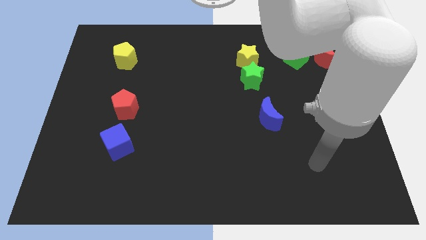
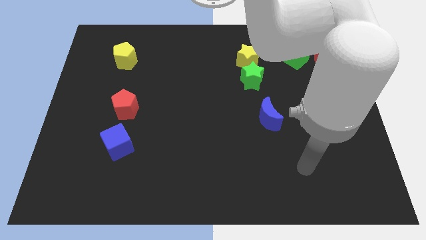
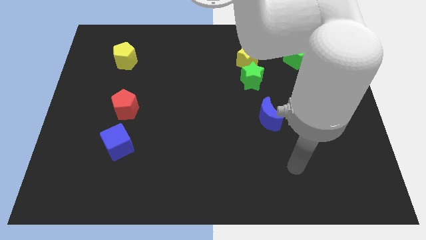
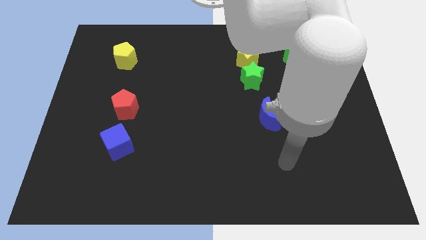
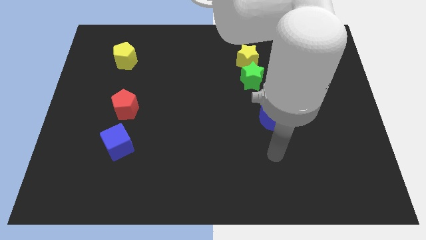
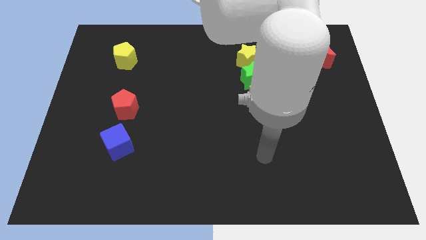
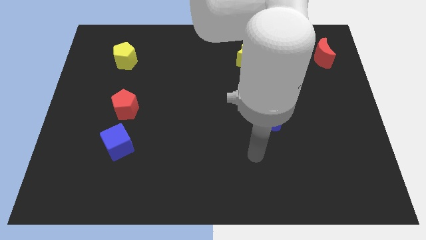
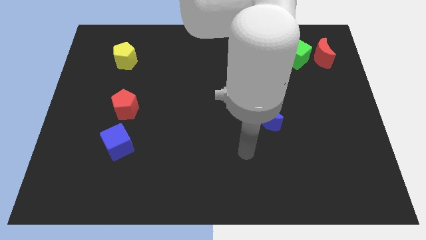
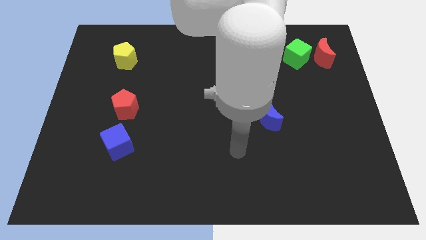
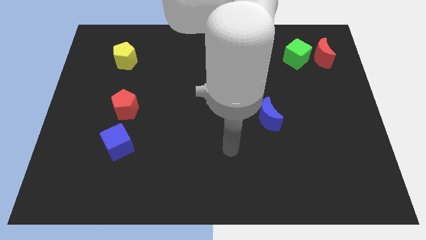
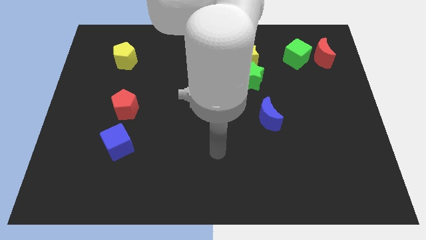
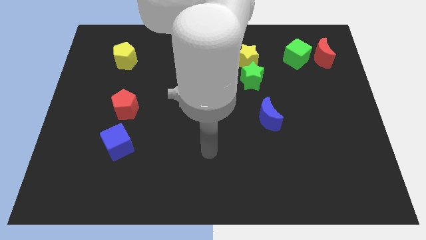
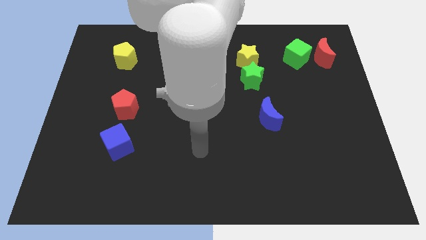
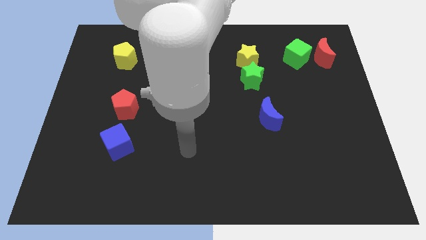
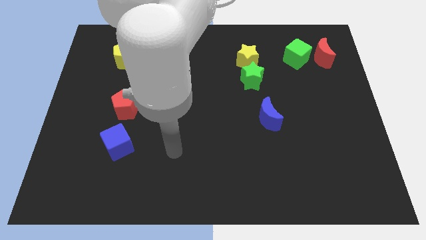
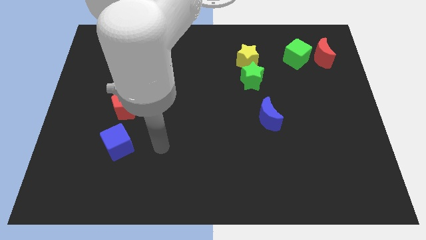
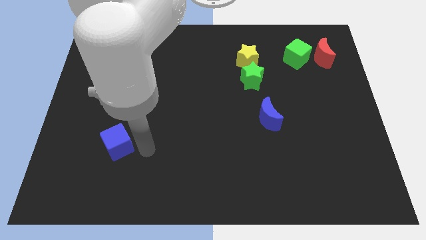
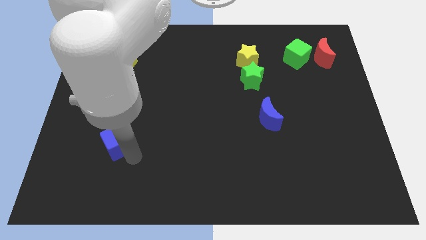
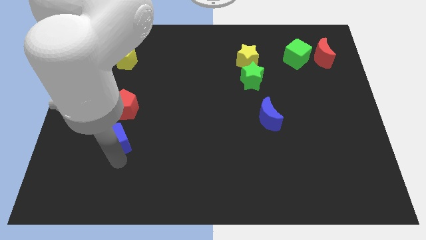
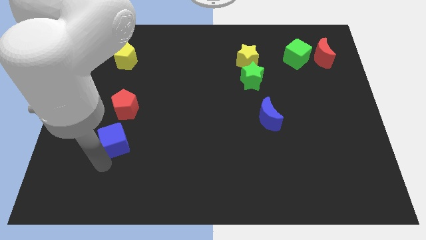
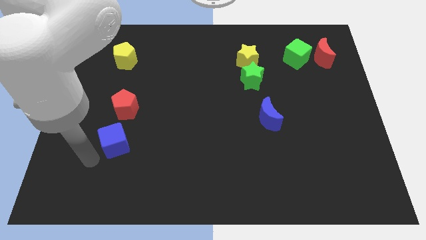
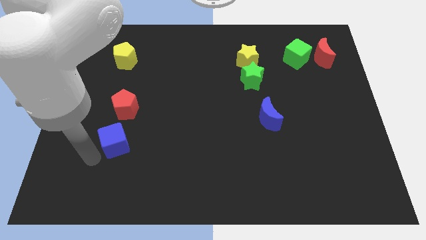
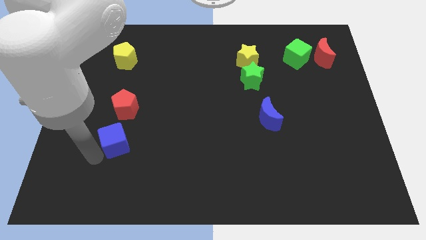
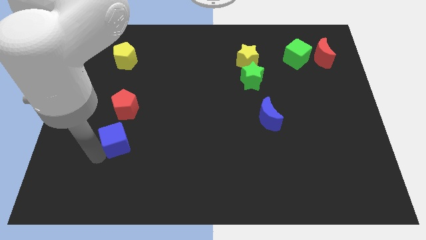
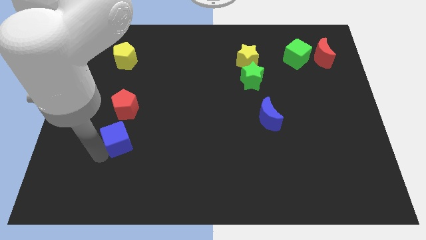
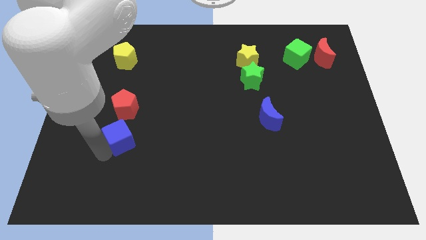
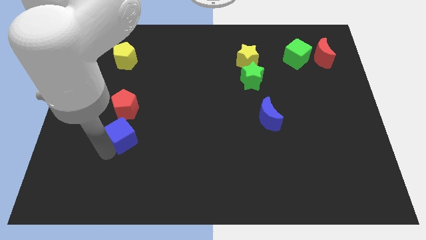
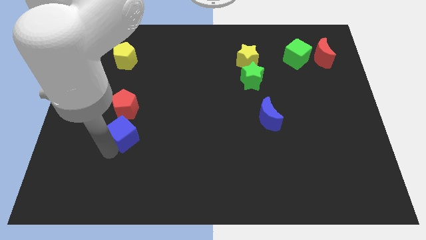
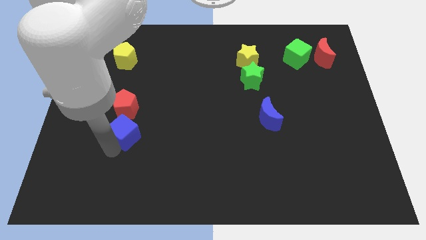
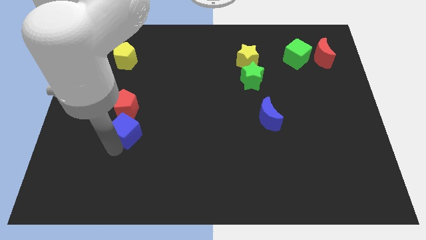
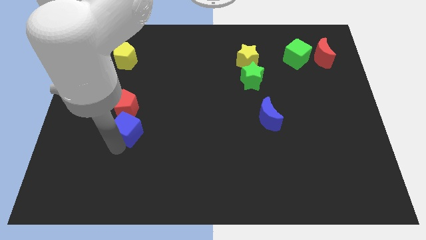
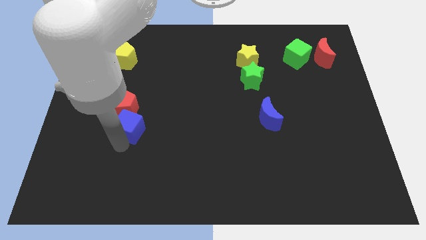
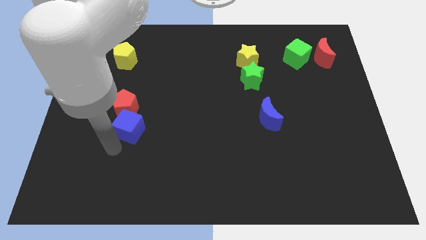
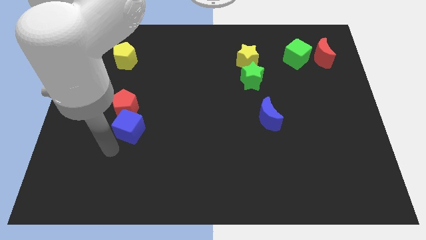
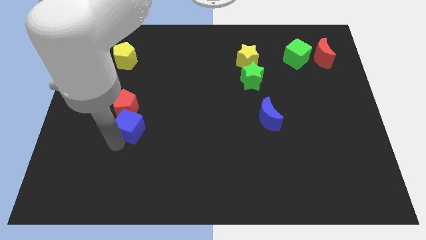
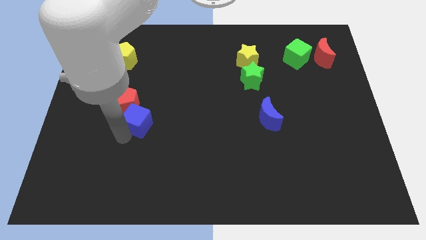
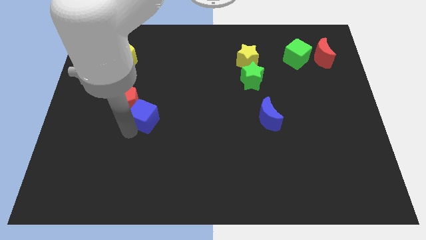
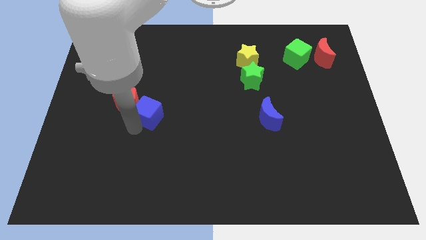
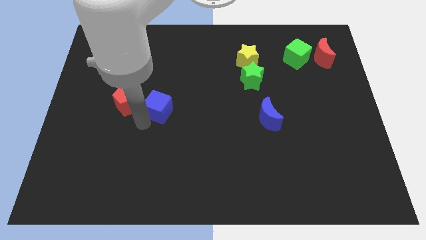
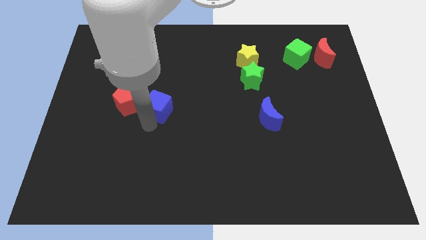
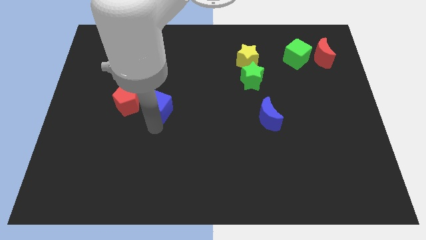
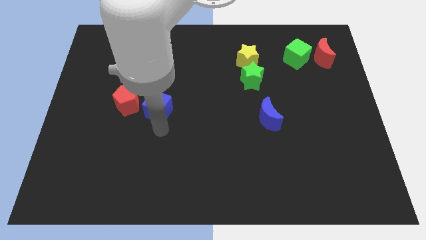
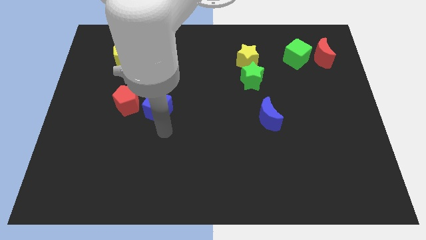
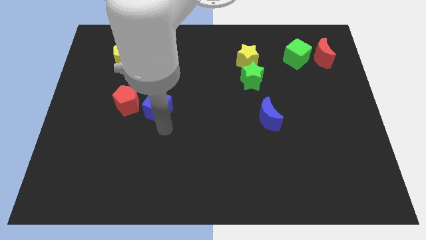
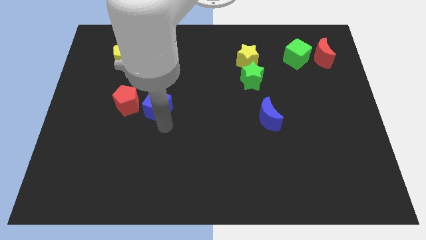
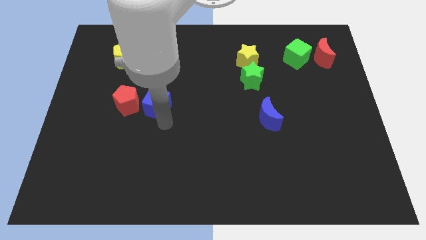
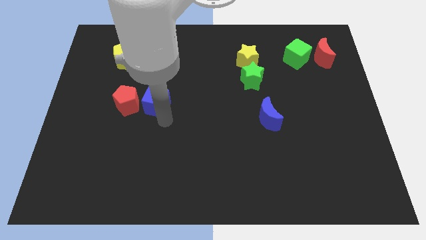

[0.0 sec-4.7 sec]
put the blue cube to the top right of the red pentagon

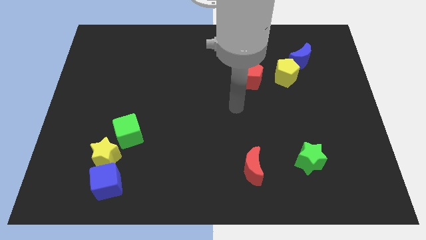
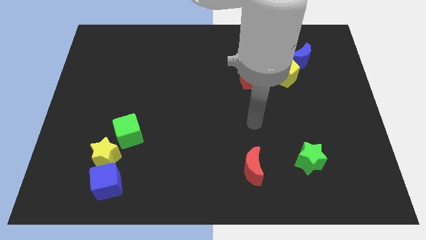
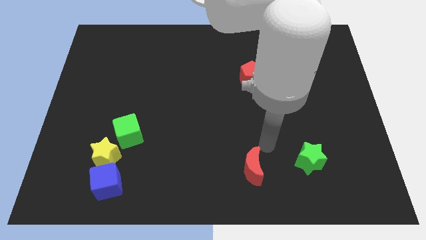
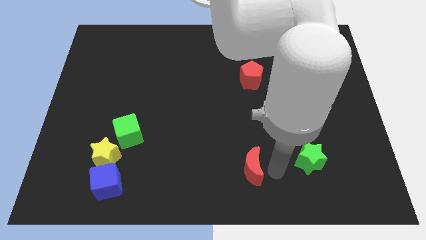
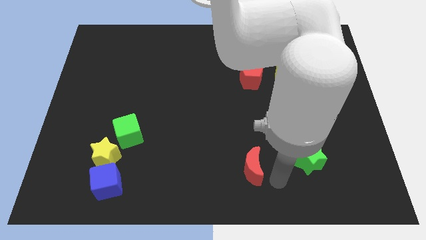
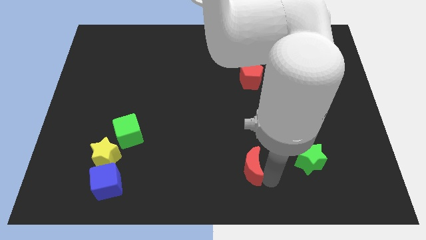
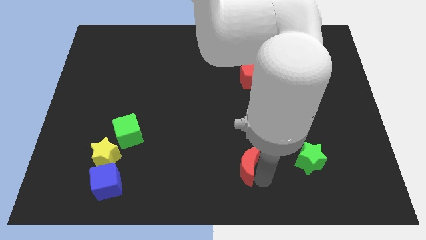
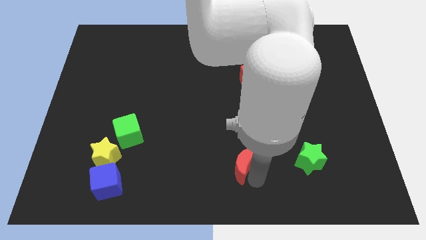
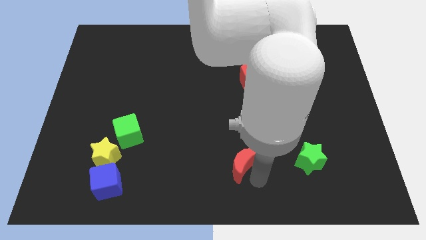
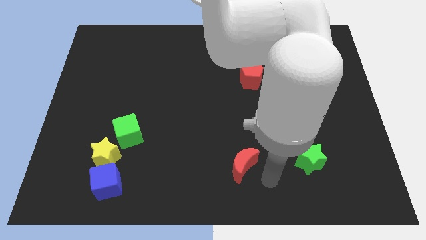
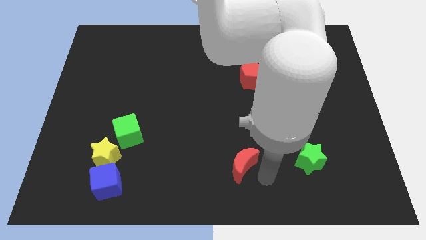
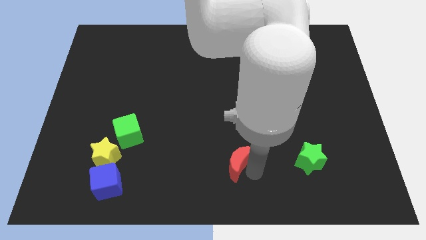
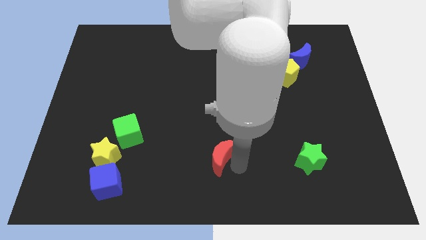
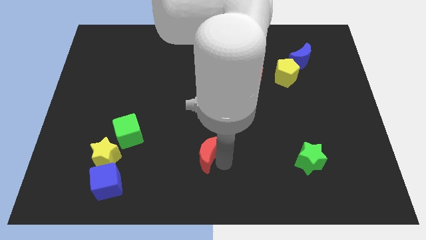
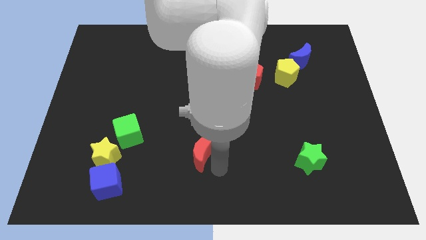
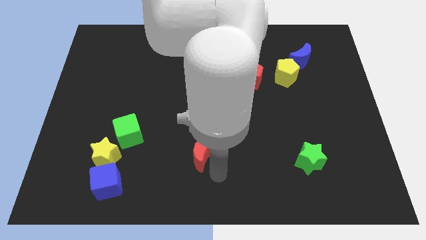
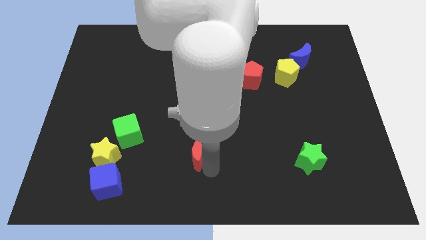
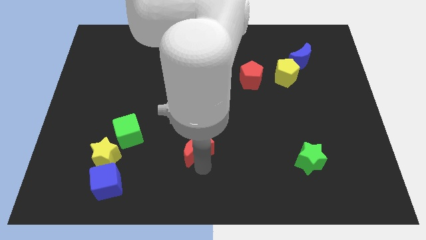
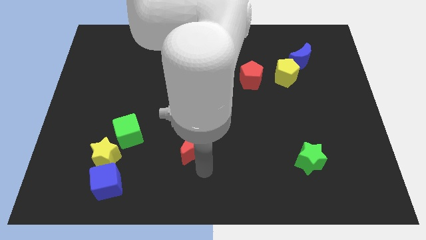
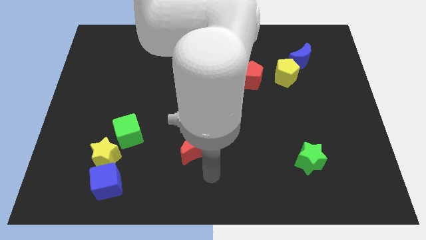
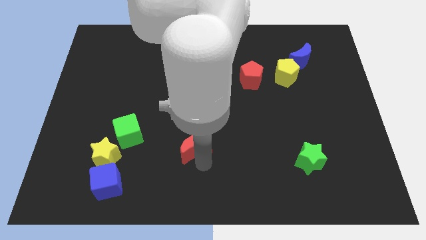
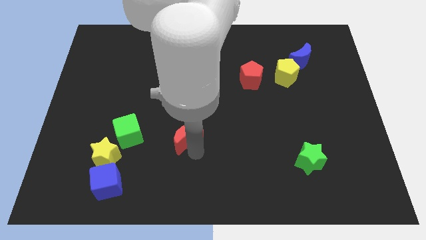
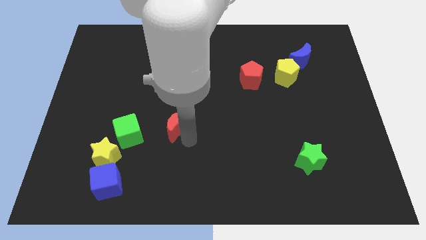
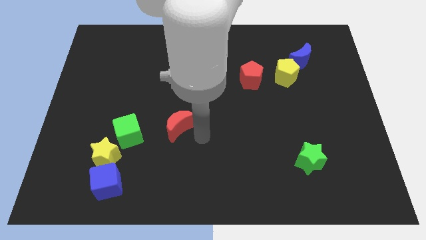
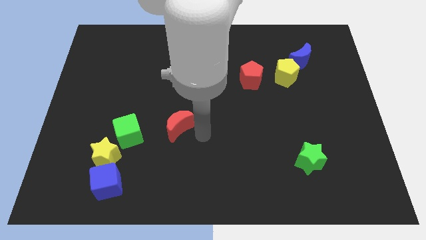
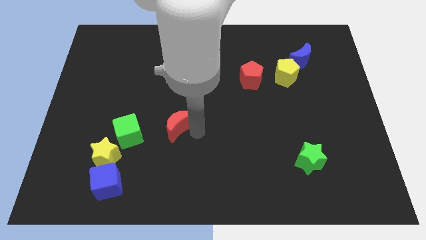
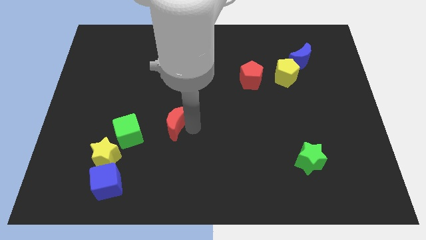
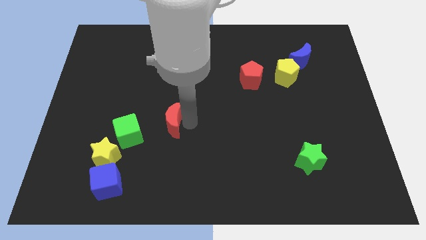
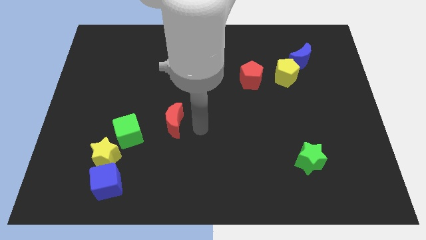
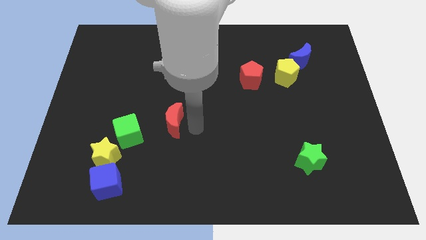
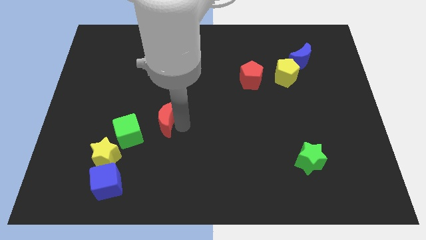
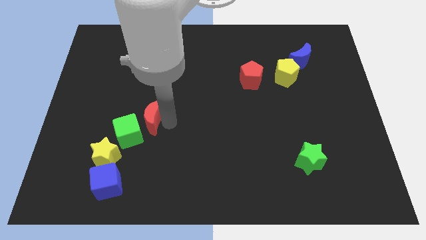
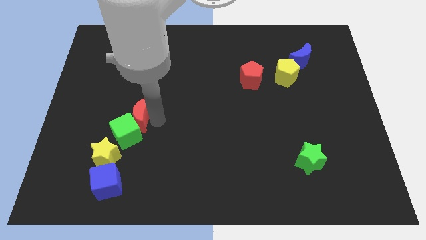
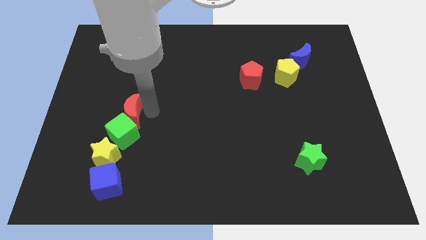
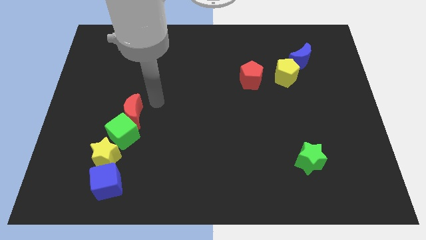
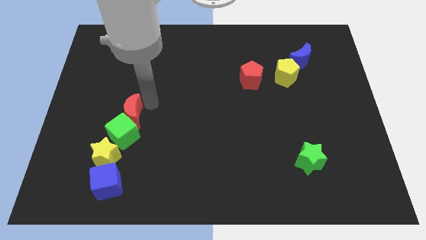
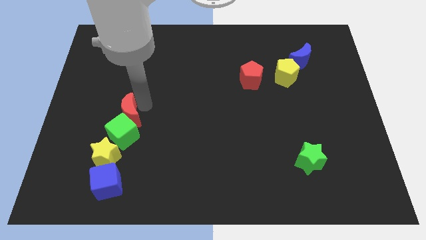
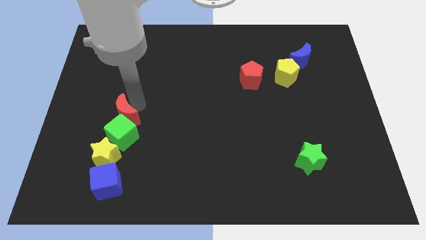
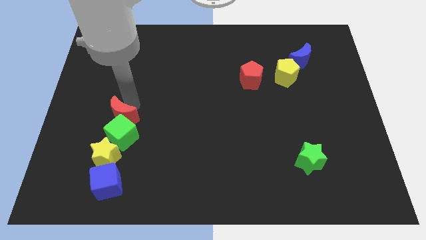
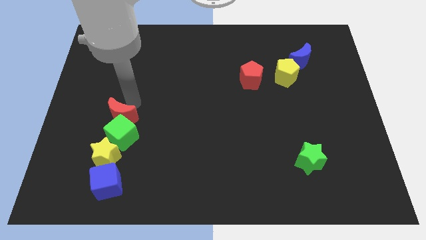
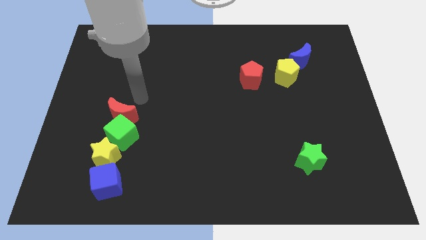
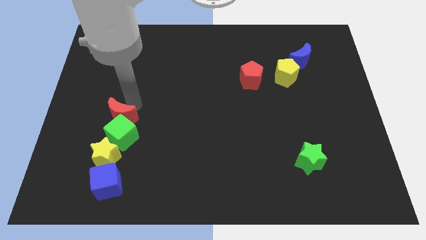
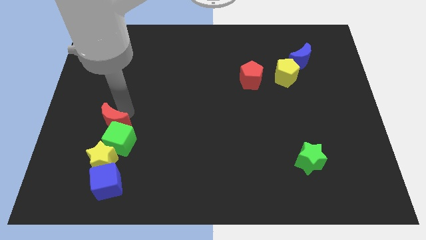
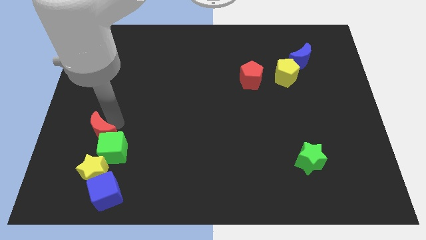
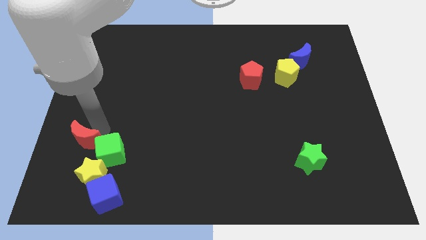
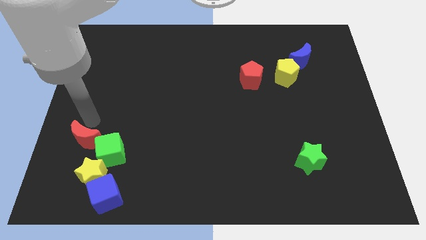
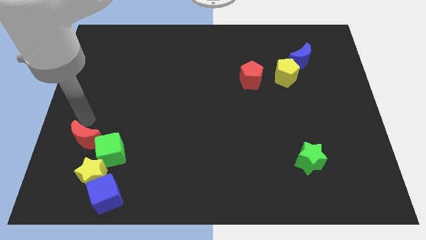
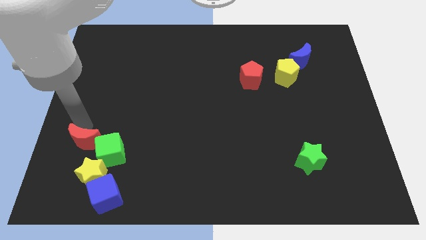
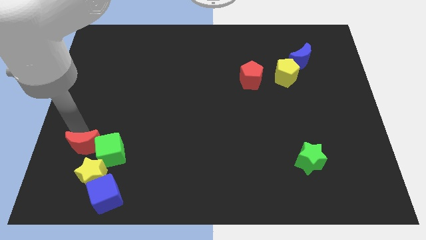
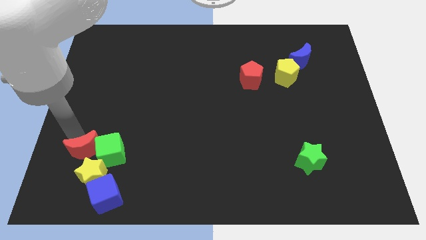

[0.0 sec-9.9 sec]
slide the red moon to the top left side of the blue cube
